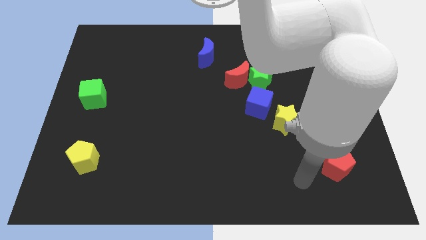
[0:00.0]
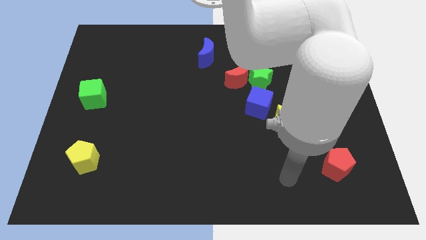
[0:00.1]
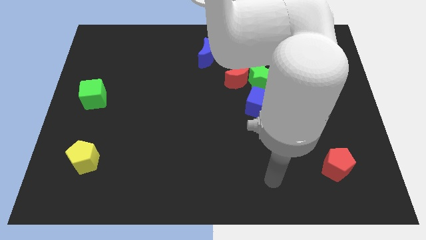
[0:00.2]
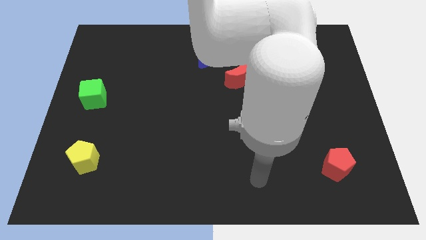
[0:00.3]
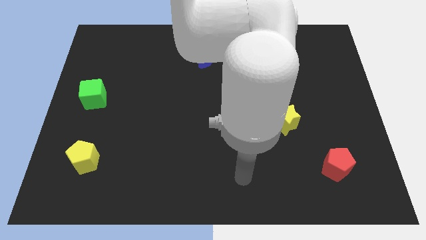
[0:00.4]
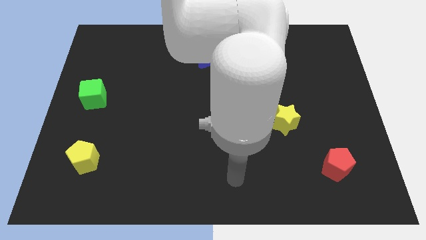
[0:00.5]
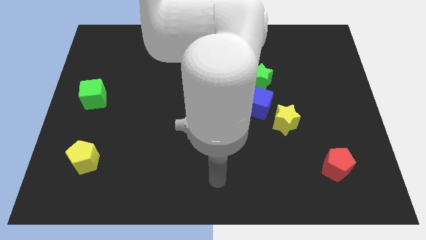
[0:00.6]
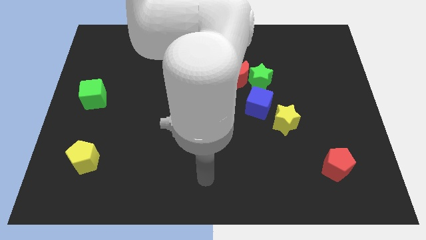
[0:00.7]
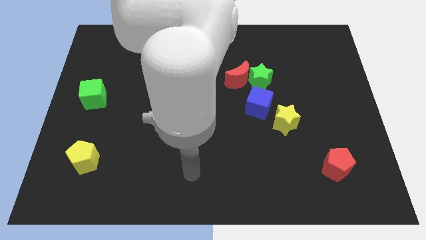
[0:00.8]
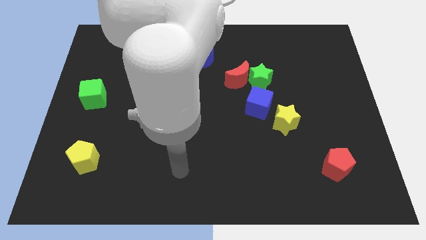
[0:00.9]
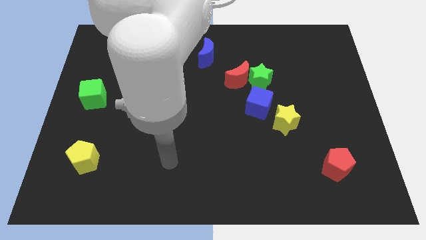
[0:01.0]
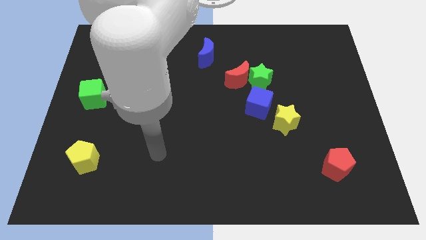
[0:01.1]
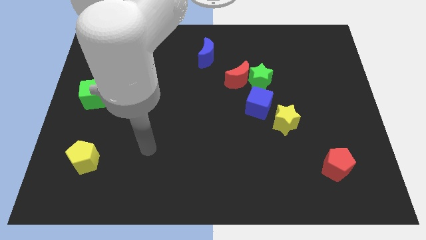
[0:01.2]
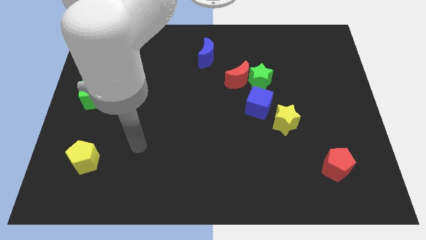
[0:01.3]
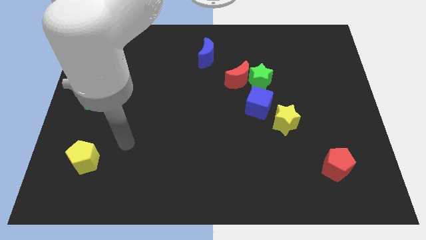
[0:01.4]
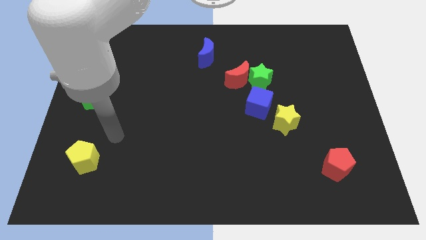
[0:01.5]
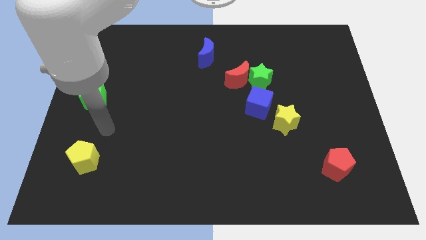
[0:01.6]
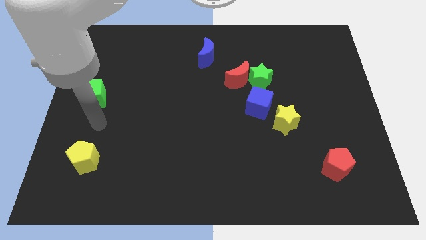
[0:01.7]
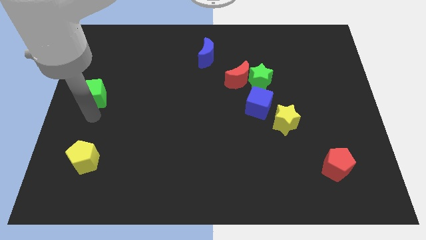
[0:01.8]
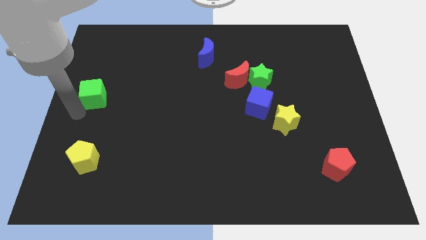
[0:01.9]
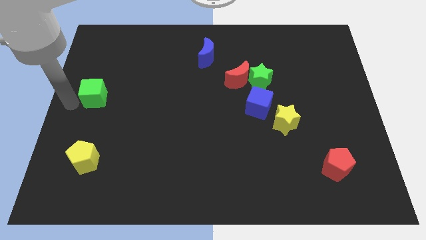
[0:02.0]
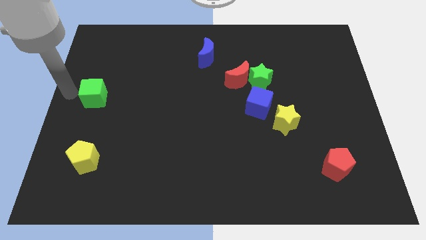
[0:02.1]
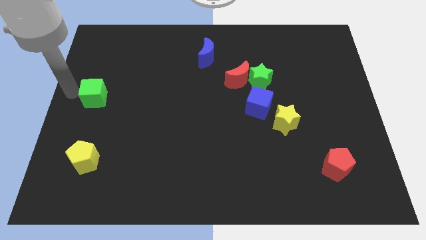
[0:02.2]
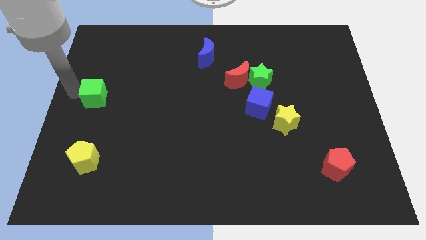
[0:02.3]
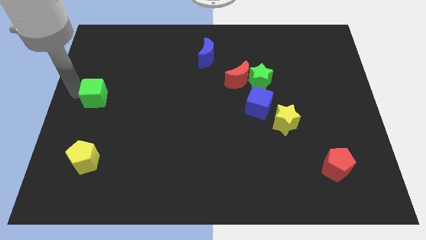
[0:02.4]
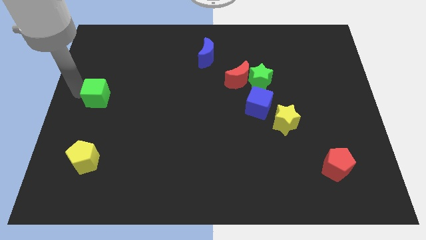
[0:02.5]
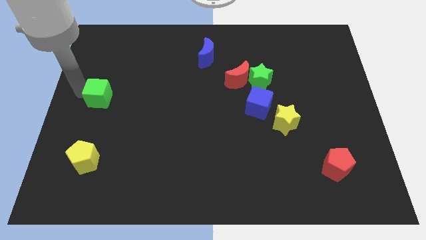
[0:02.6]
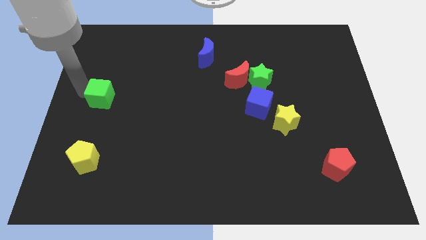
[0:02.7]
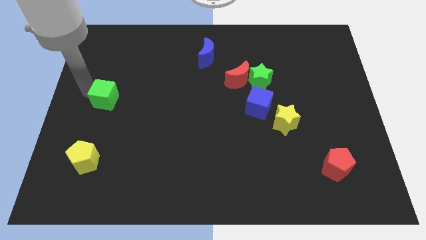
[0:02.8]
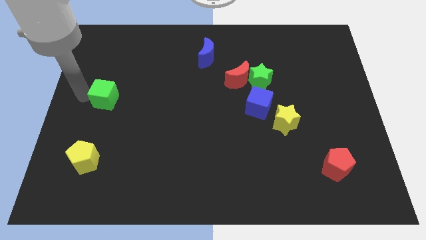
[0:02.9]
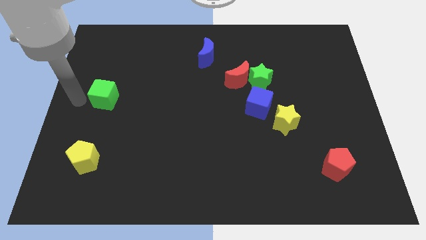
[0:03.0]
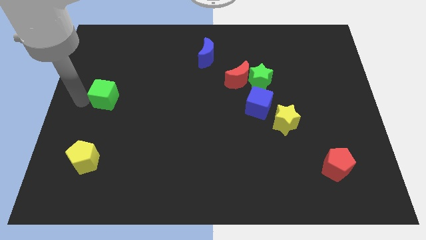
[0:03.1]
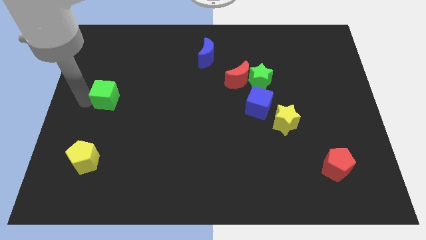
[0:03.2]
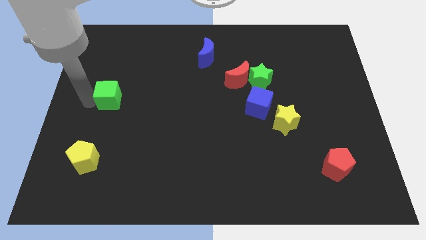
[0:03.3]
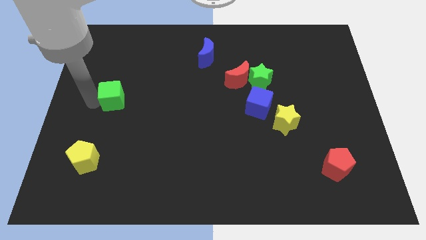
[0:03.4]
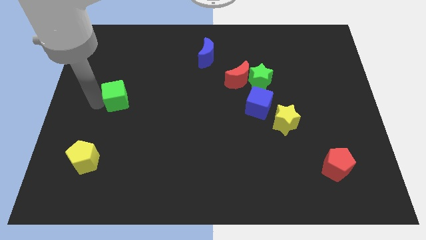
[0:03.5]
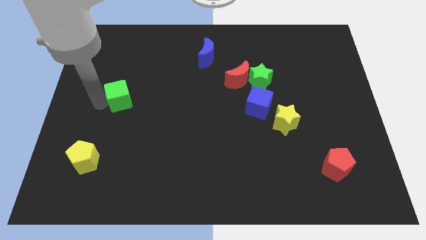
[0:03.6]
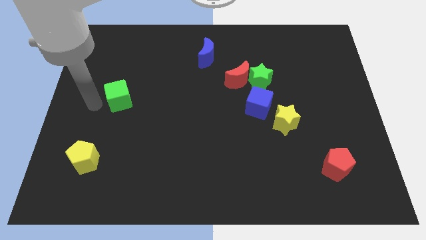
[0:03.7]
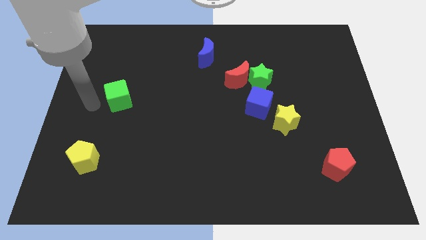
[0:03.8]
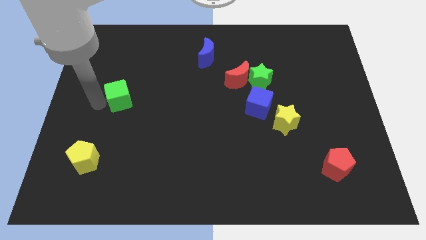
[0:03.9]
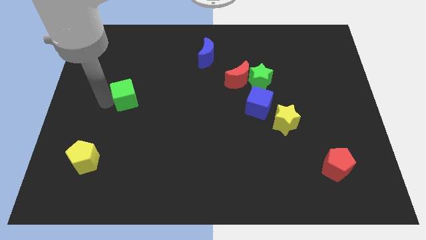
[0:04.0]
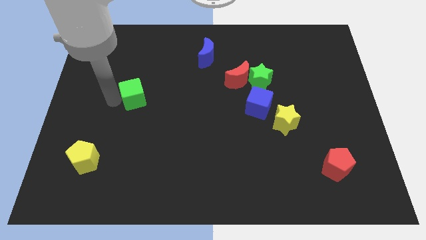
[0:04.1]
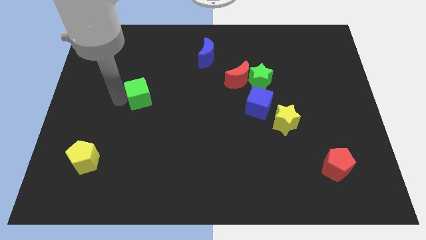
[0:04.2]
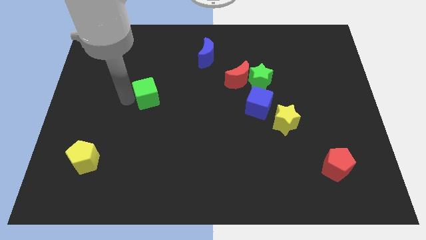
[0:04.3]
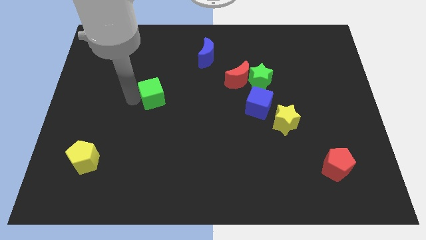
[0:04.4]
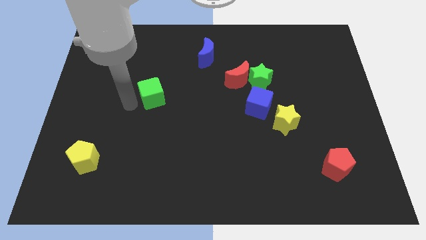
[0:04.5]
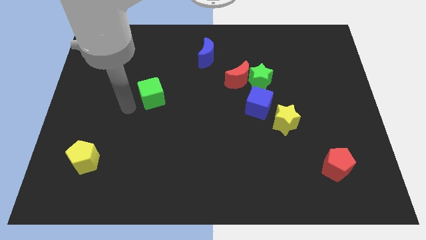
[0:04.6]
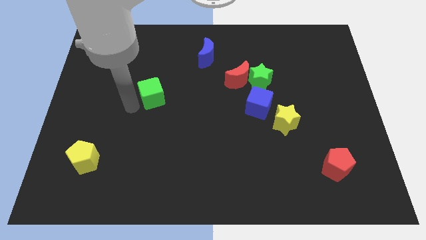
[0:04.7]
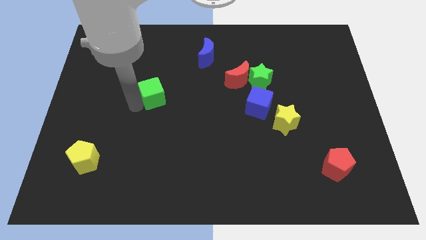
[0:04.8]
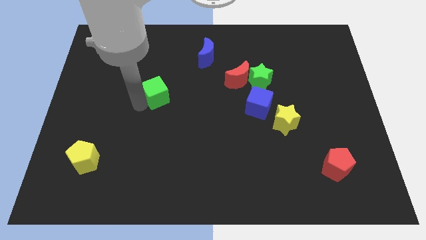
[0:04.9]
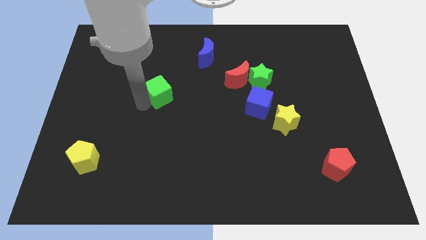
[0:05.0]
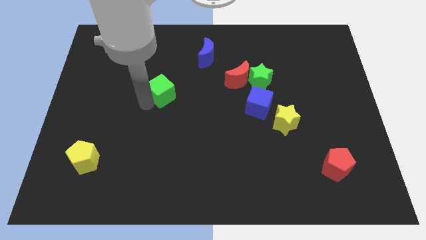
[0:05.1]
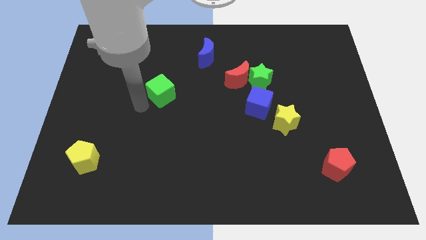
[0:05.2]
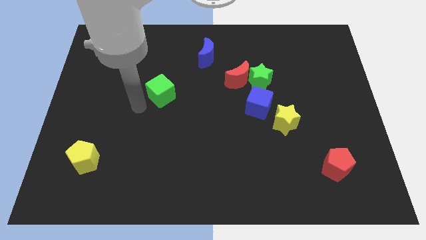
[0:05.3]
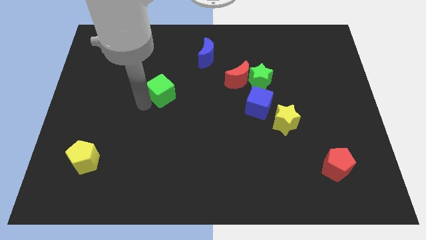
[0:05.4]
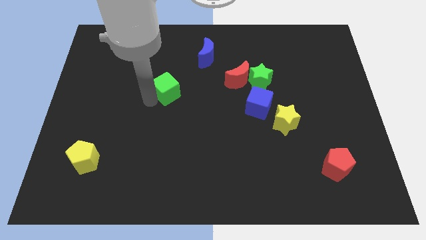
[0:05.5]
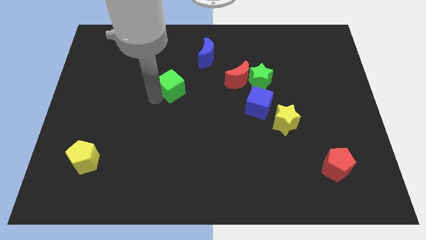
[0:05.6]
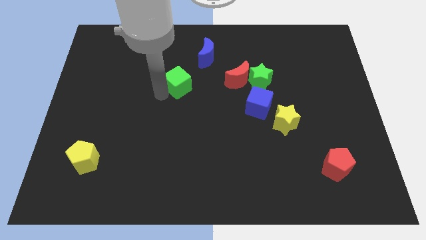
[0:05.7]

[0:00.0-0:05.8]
push the green cube just left of the red moon

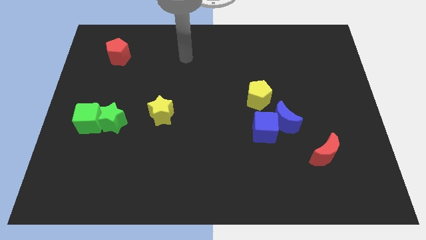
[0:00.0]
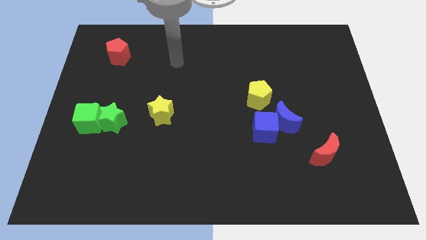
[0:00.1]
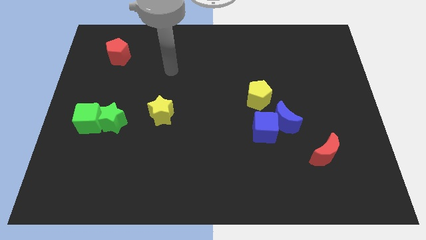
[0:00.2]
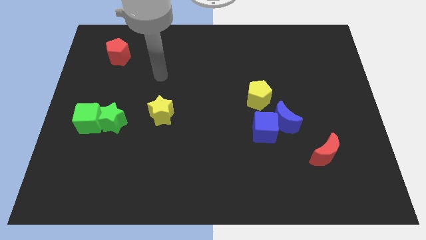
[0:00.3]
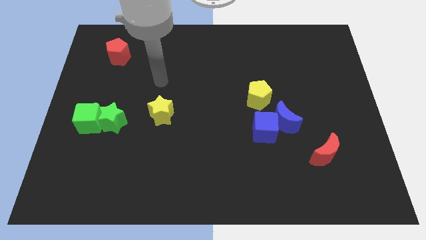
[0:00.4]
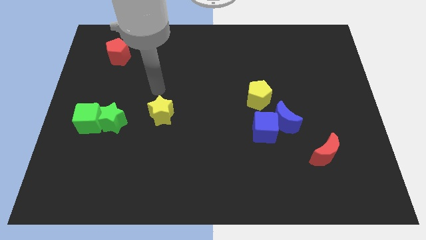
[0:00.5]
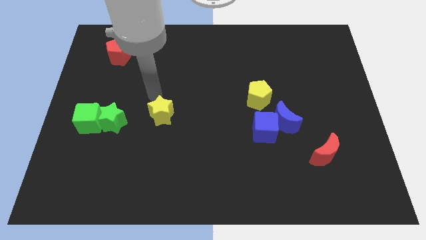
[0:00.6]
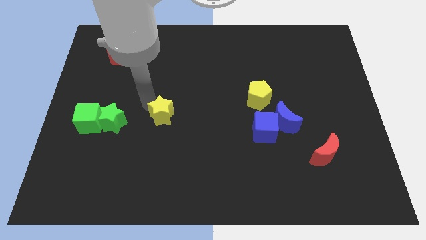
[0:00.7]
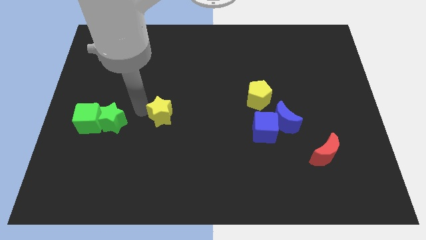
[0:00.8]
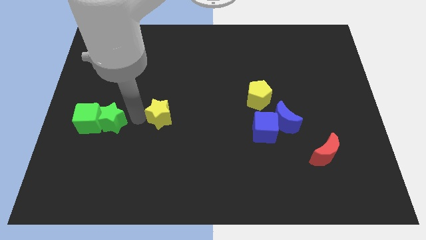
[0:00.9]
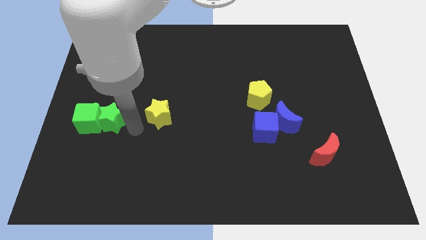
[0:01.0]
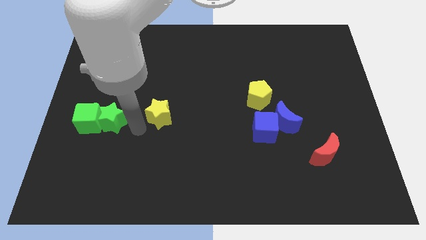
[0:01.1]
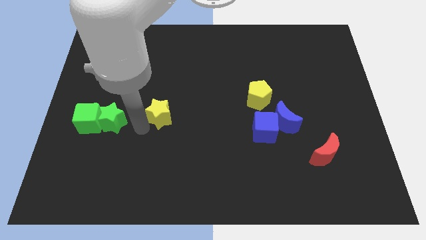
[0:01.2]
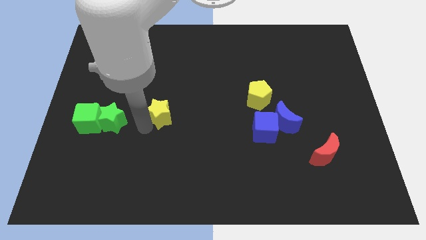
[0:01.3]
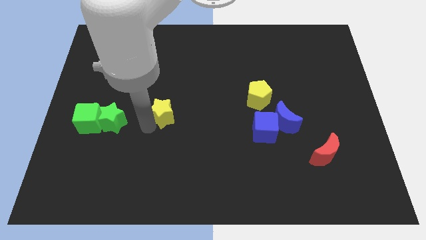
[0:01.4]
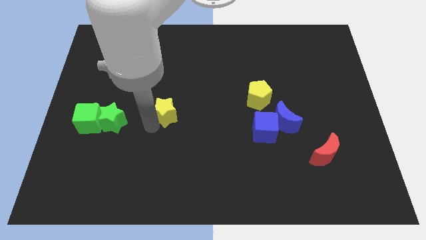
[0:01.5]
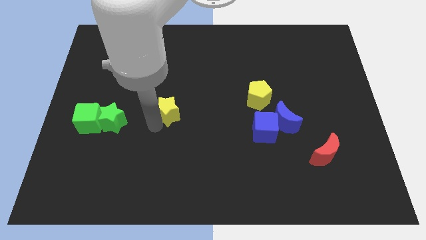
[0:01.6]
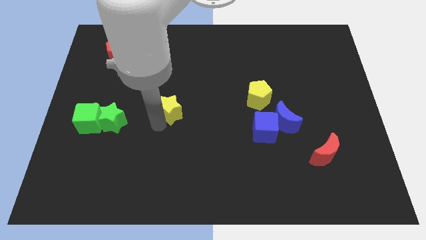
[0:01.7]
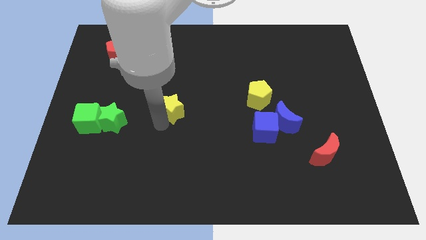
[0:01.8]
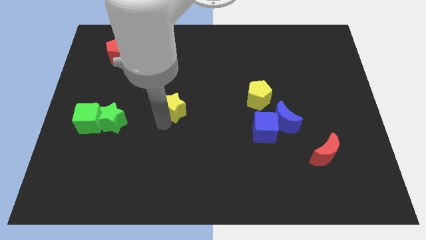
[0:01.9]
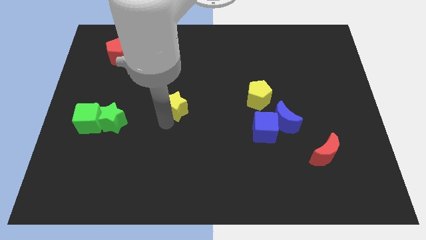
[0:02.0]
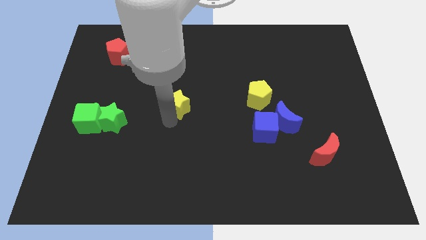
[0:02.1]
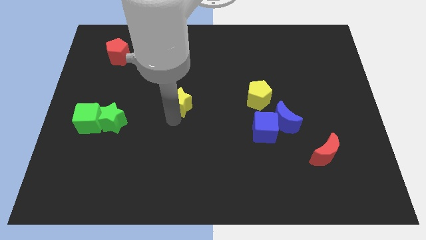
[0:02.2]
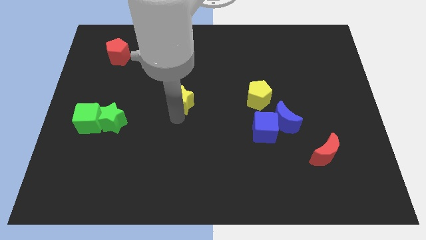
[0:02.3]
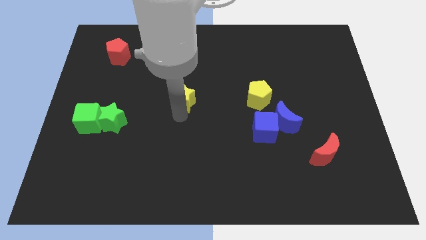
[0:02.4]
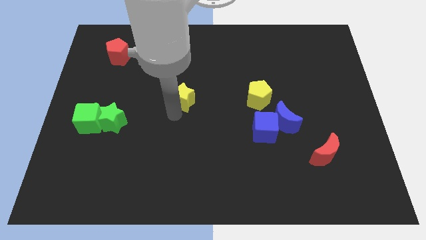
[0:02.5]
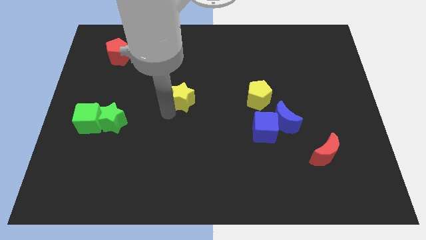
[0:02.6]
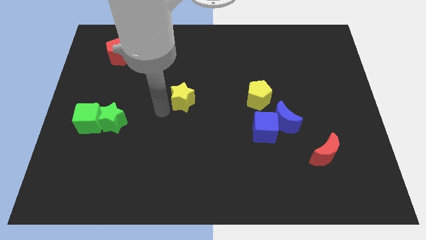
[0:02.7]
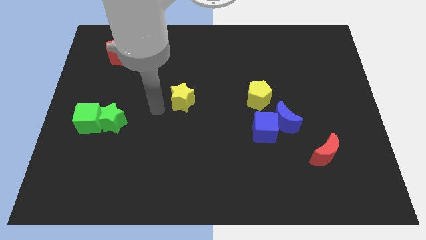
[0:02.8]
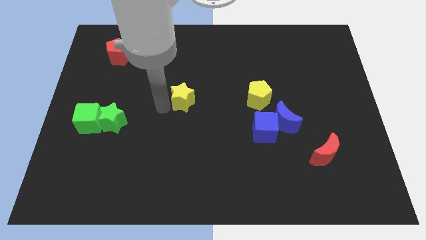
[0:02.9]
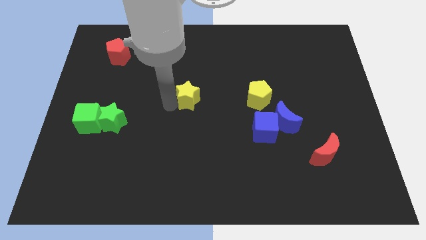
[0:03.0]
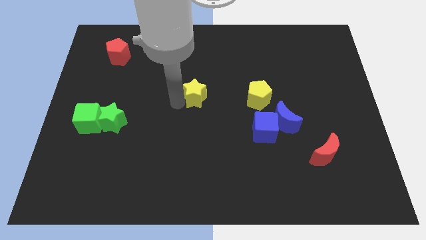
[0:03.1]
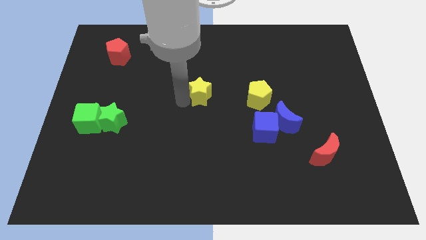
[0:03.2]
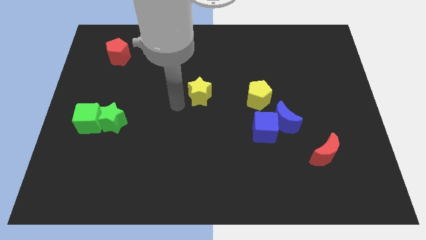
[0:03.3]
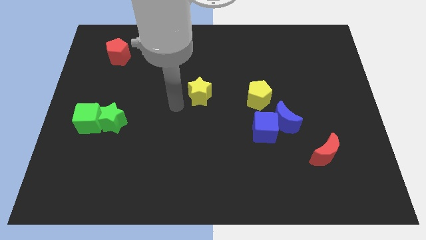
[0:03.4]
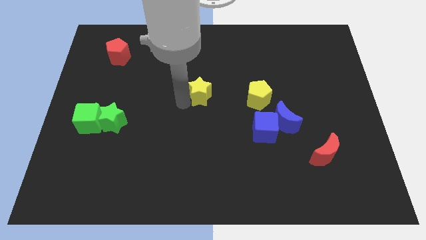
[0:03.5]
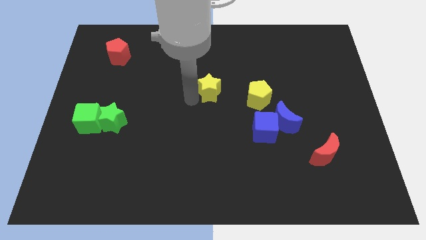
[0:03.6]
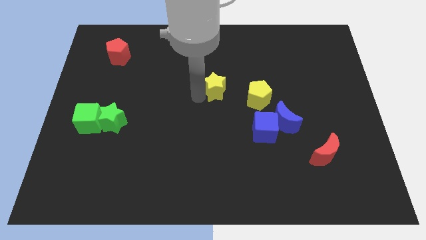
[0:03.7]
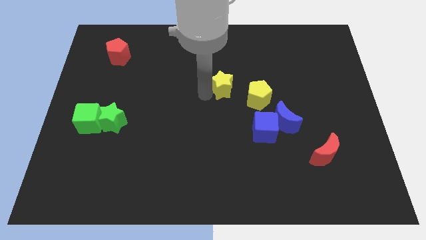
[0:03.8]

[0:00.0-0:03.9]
push the yellow star diagonally up and to the left of the yellow pentagon
